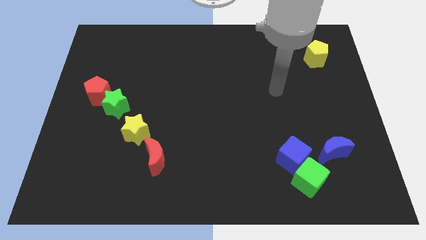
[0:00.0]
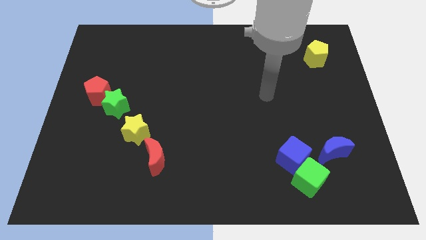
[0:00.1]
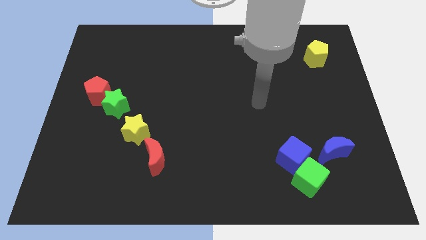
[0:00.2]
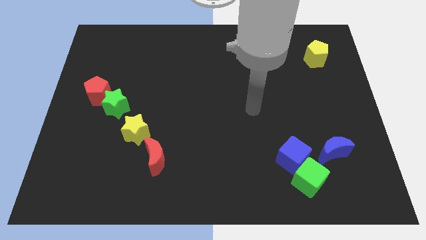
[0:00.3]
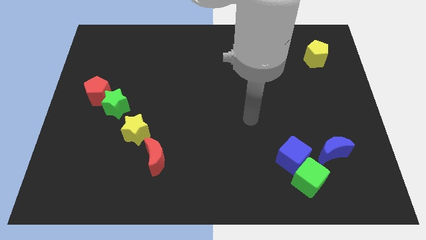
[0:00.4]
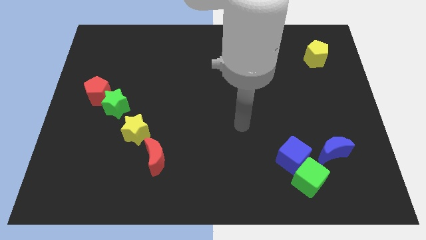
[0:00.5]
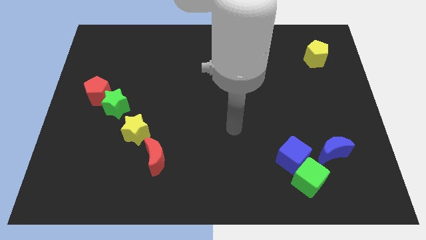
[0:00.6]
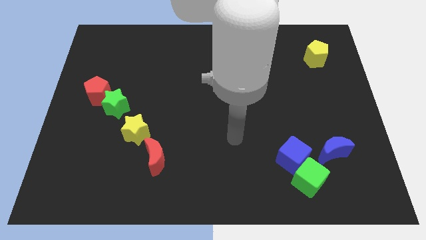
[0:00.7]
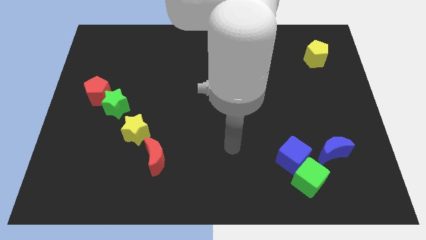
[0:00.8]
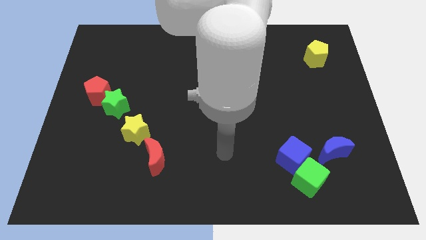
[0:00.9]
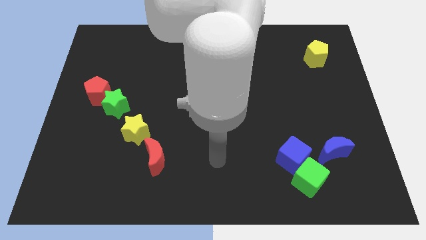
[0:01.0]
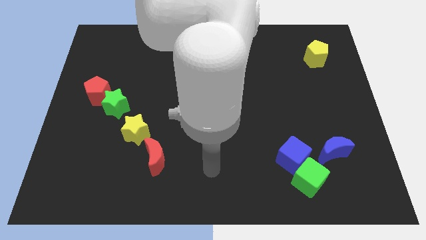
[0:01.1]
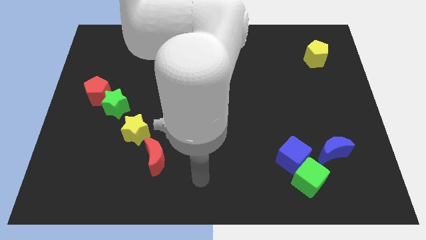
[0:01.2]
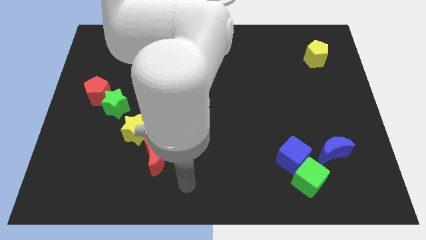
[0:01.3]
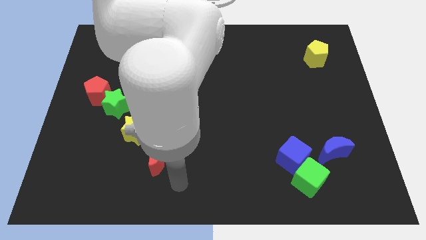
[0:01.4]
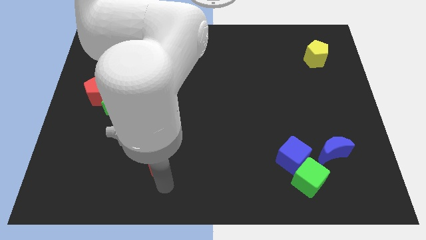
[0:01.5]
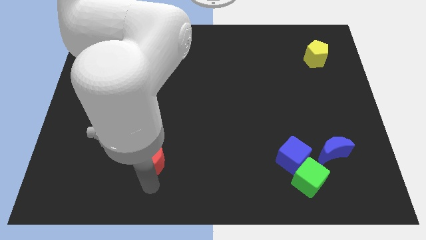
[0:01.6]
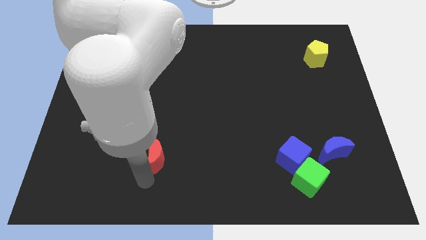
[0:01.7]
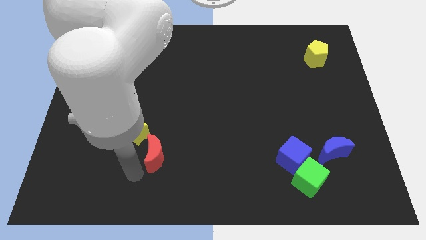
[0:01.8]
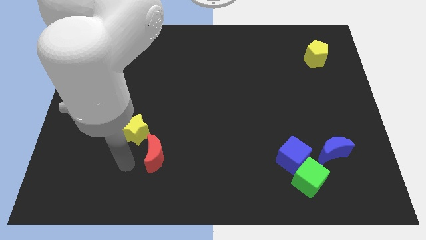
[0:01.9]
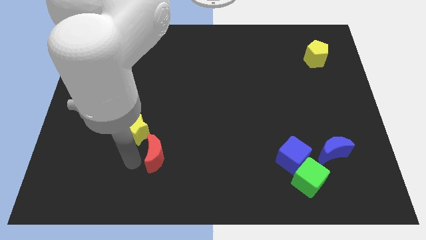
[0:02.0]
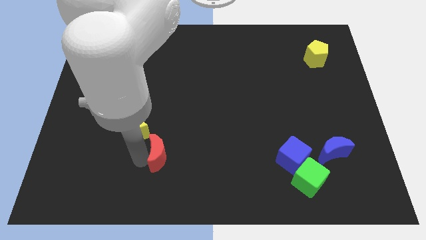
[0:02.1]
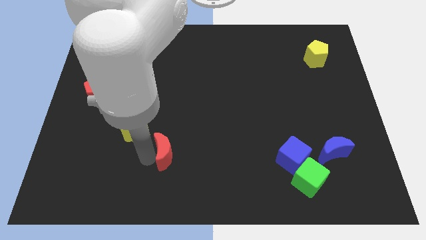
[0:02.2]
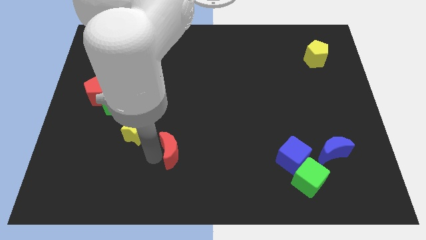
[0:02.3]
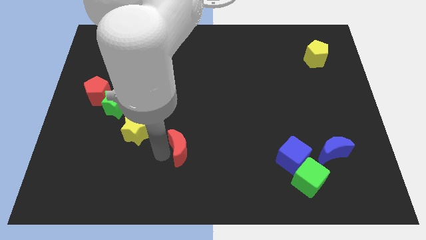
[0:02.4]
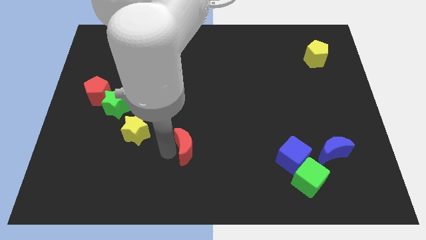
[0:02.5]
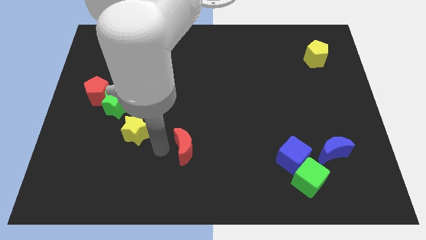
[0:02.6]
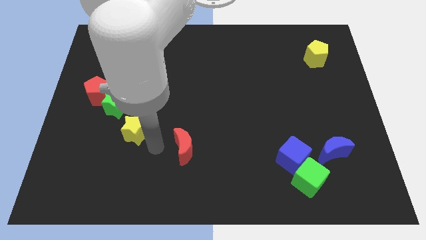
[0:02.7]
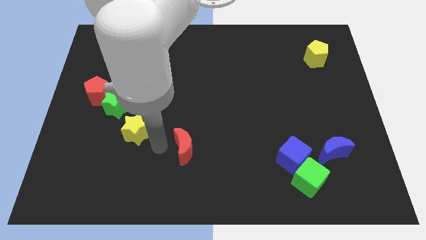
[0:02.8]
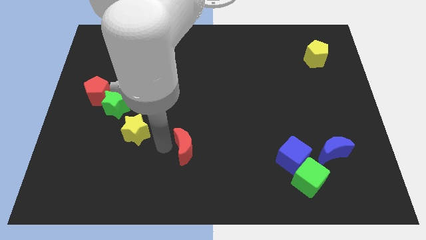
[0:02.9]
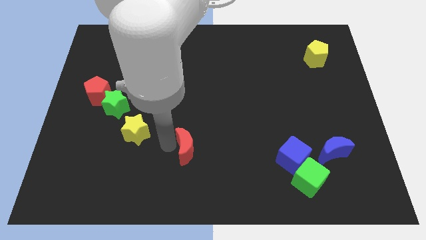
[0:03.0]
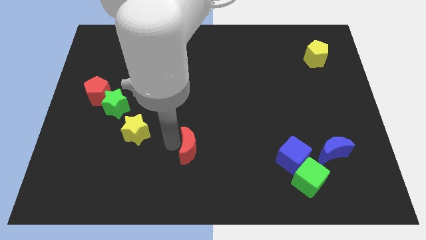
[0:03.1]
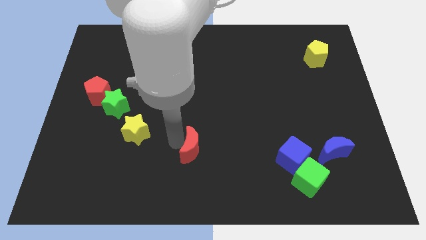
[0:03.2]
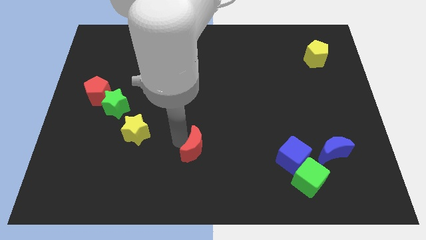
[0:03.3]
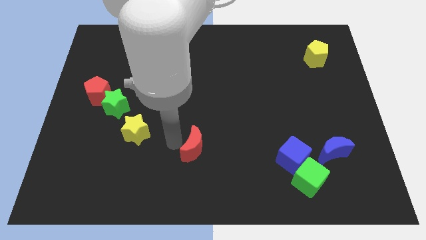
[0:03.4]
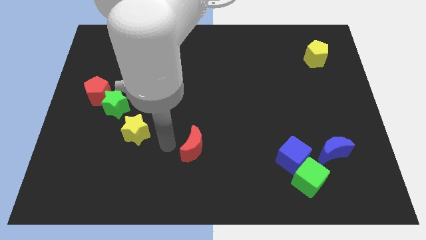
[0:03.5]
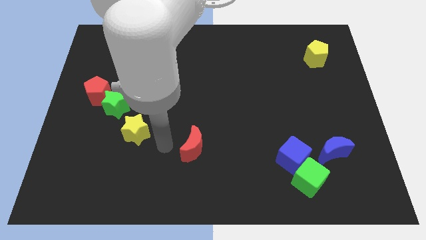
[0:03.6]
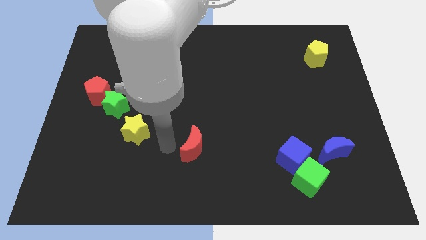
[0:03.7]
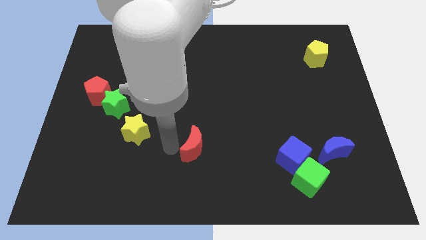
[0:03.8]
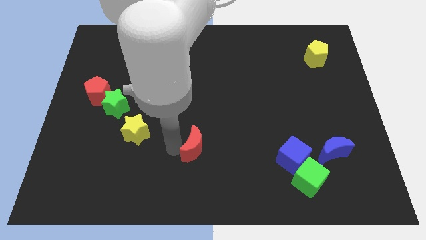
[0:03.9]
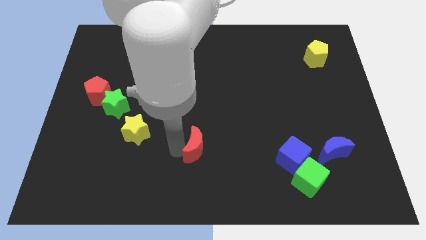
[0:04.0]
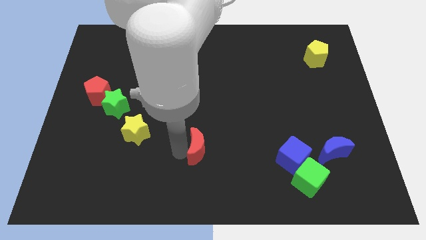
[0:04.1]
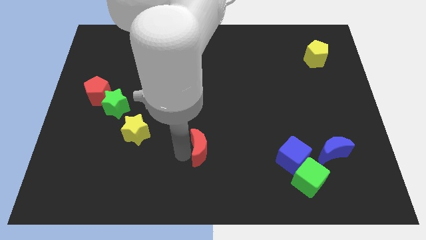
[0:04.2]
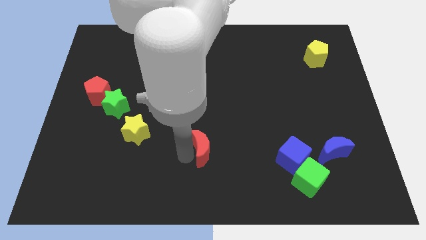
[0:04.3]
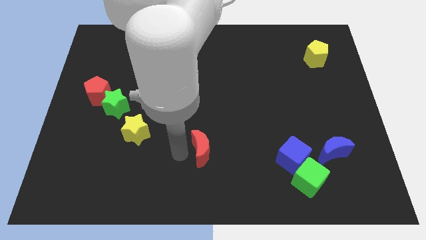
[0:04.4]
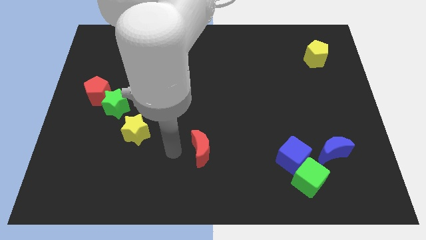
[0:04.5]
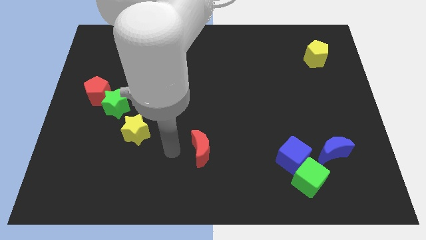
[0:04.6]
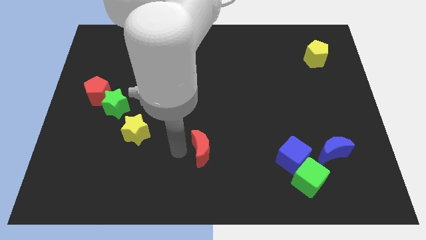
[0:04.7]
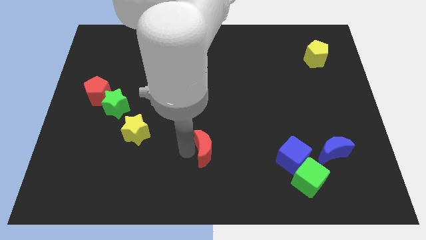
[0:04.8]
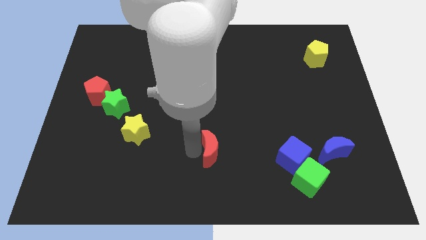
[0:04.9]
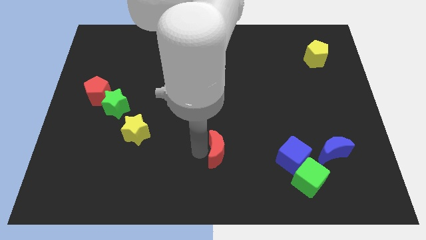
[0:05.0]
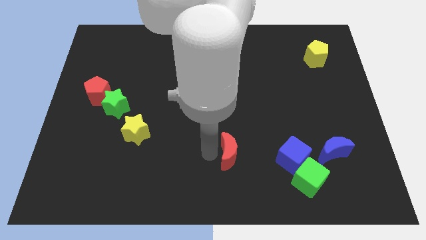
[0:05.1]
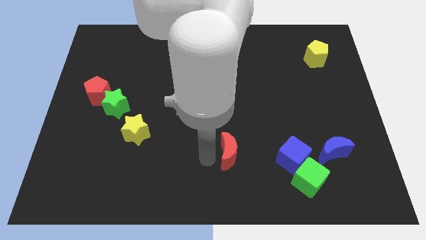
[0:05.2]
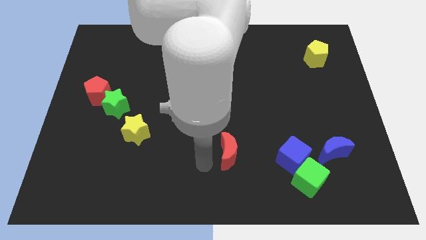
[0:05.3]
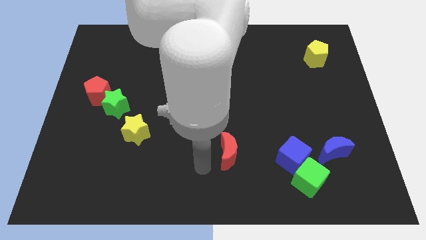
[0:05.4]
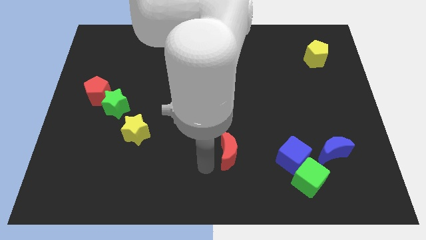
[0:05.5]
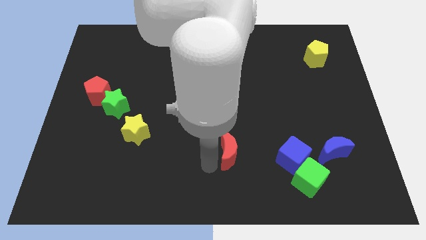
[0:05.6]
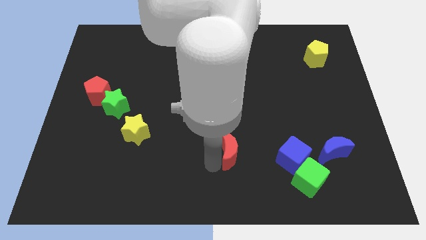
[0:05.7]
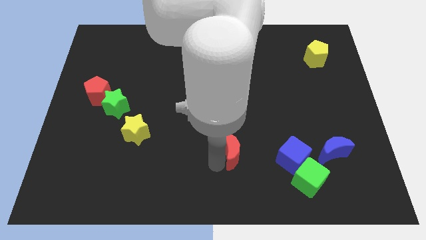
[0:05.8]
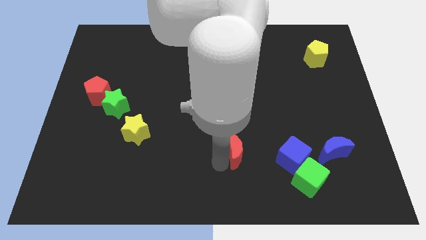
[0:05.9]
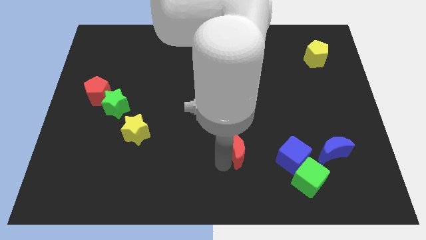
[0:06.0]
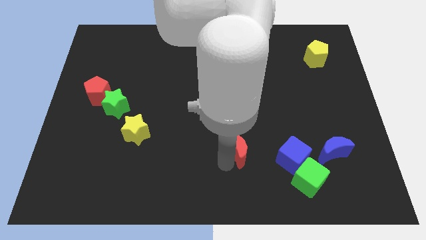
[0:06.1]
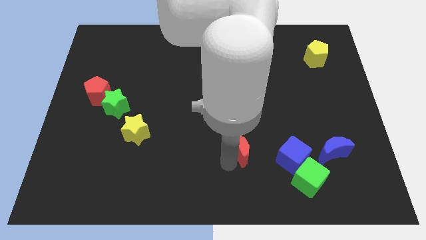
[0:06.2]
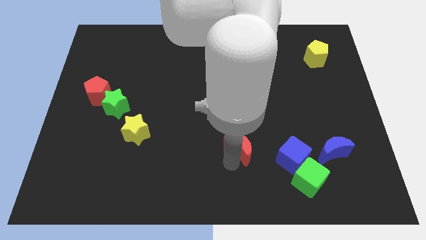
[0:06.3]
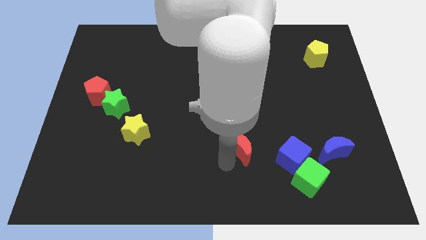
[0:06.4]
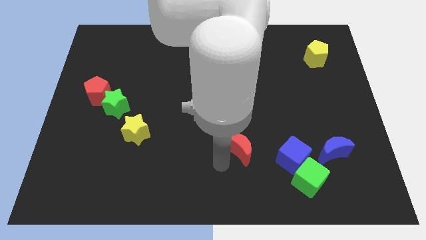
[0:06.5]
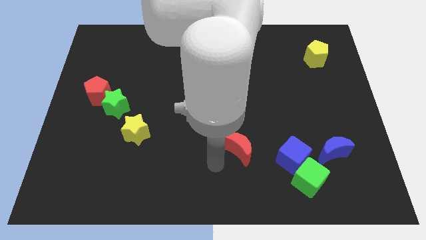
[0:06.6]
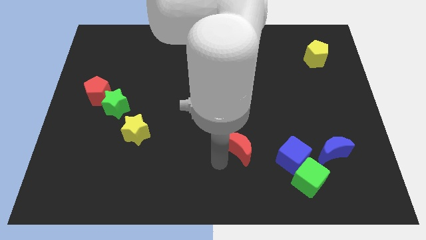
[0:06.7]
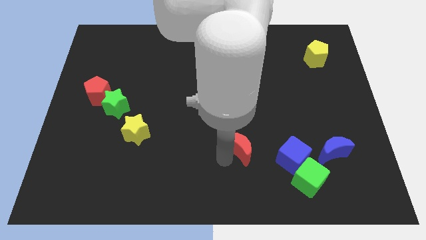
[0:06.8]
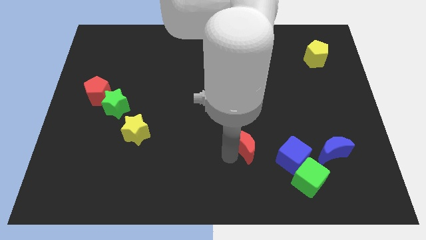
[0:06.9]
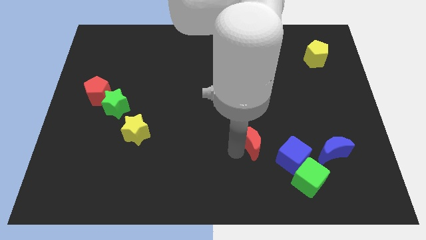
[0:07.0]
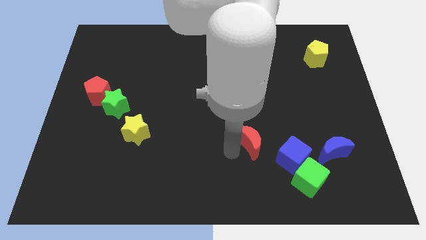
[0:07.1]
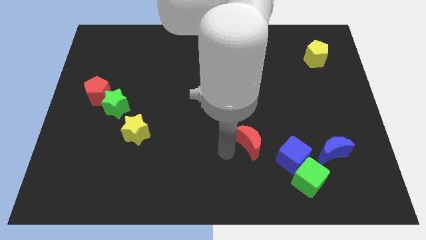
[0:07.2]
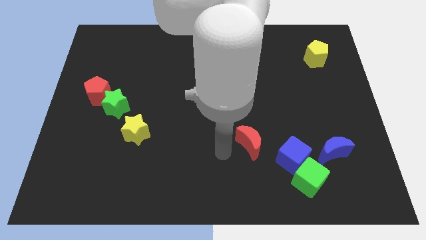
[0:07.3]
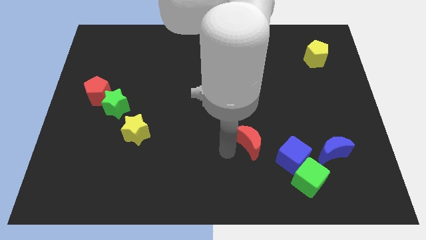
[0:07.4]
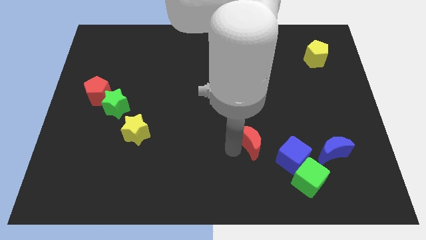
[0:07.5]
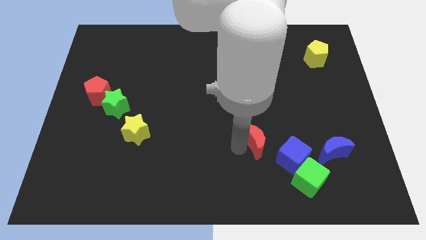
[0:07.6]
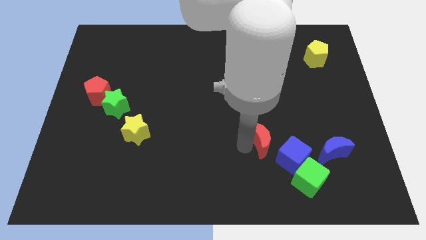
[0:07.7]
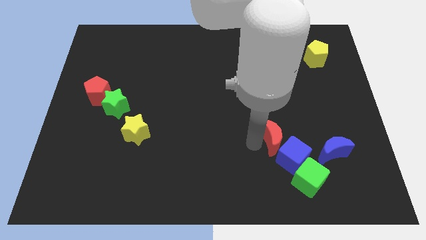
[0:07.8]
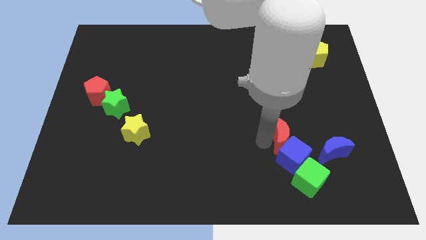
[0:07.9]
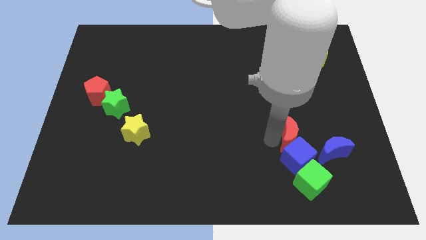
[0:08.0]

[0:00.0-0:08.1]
put the red moon diagonally up and to the left of the blue moon
